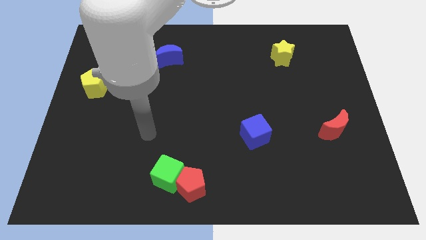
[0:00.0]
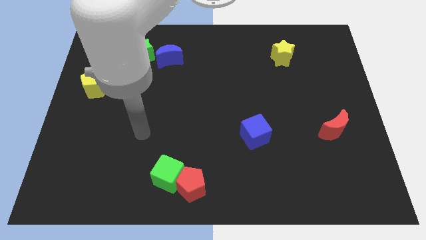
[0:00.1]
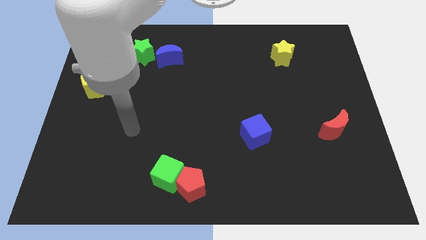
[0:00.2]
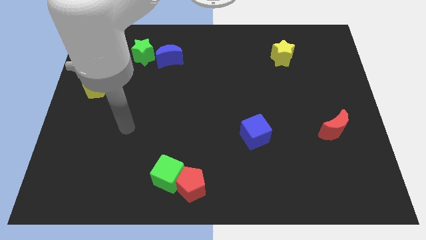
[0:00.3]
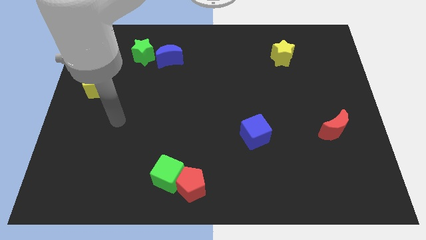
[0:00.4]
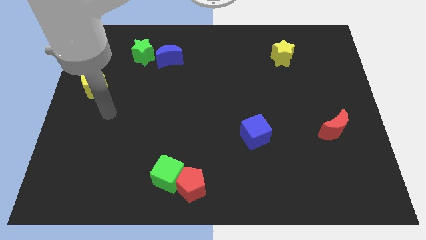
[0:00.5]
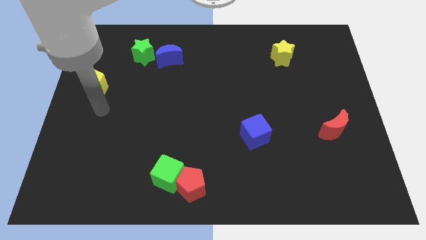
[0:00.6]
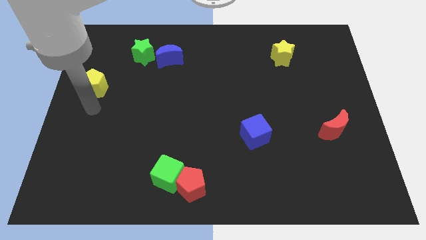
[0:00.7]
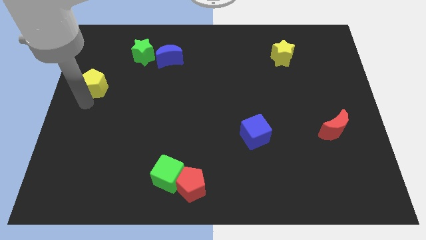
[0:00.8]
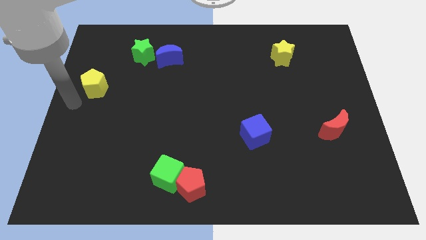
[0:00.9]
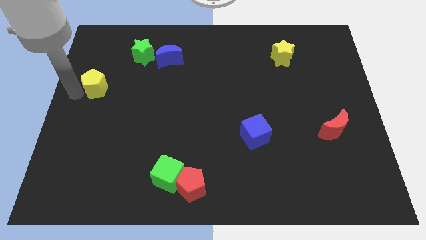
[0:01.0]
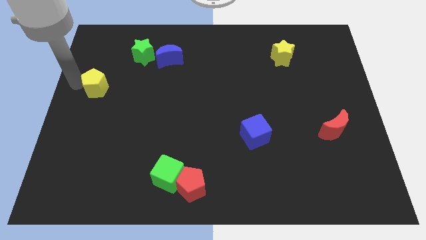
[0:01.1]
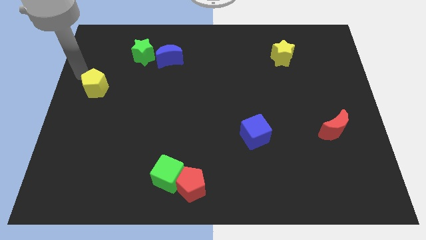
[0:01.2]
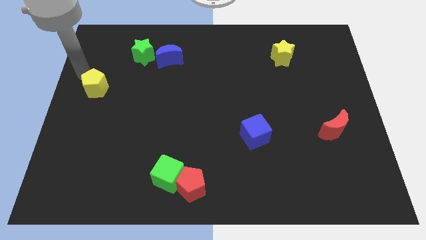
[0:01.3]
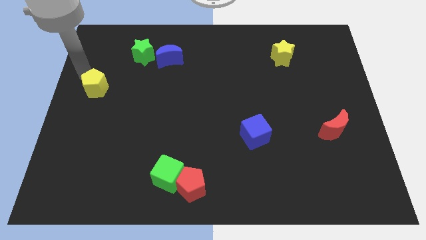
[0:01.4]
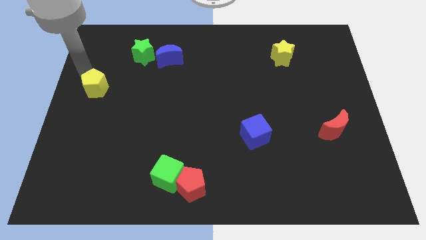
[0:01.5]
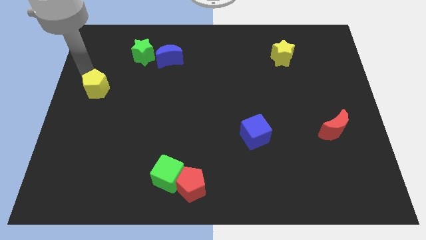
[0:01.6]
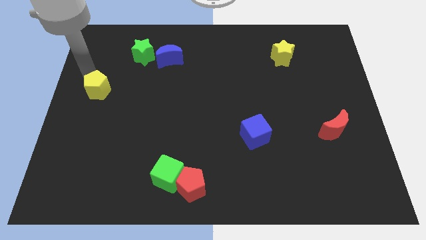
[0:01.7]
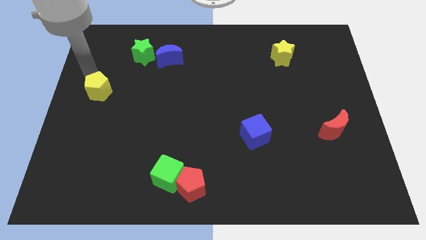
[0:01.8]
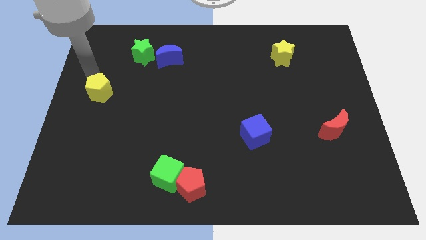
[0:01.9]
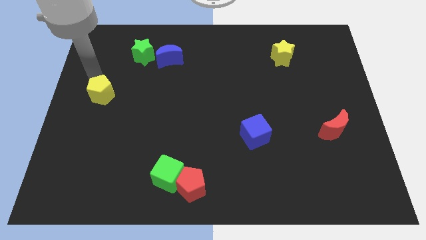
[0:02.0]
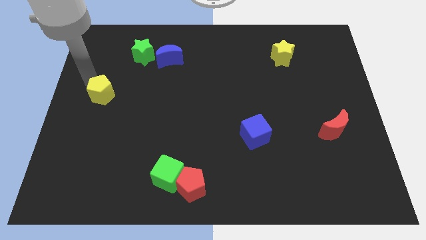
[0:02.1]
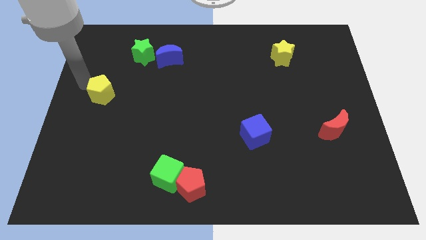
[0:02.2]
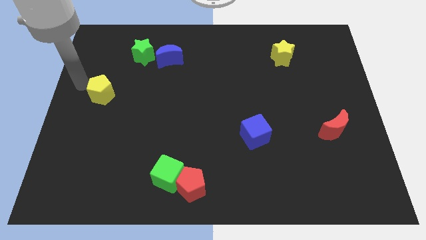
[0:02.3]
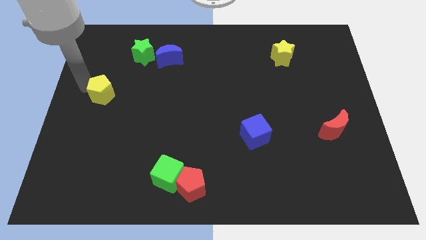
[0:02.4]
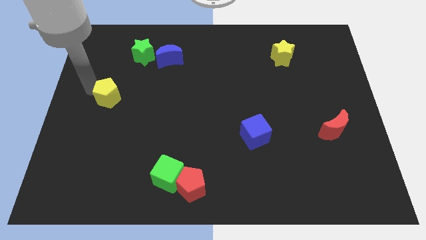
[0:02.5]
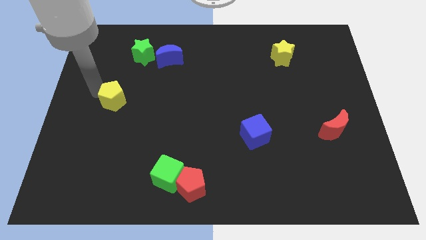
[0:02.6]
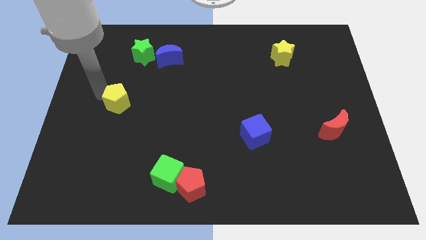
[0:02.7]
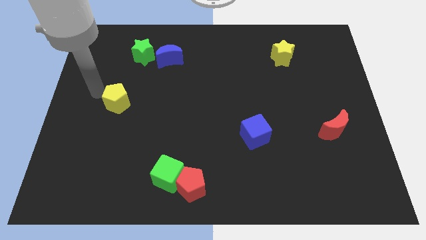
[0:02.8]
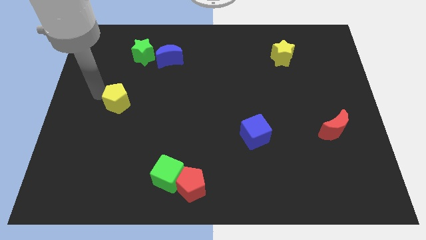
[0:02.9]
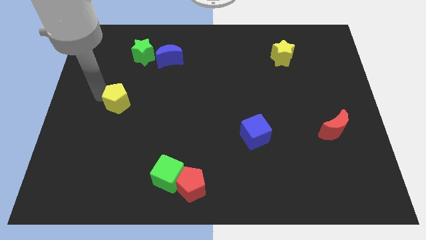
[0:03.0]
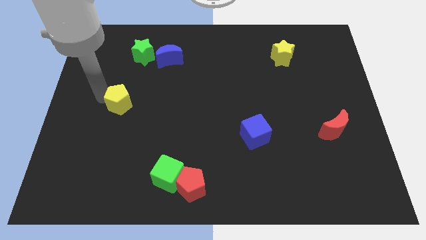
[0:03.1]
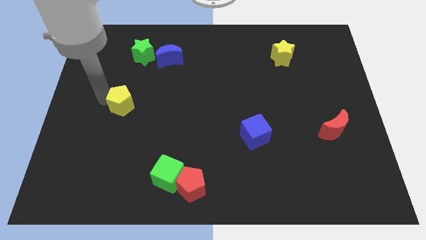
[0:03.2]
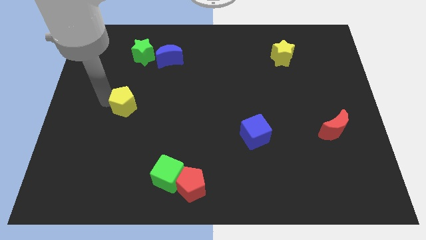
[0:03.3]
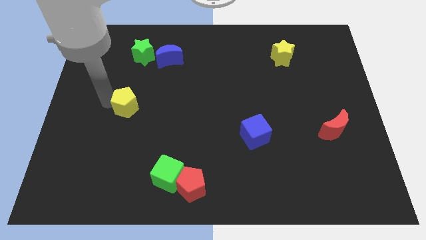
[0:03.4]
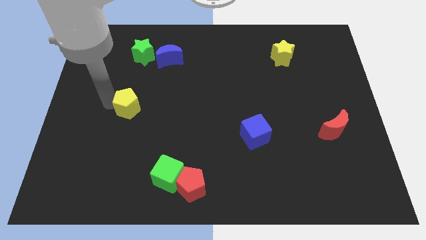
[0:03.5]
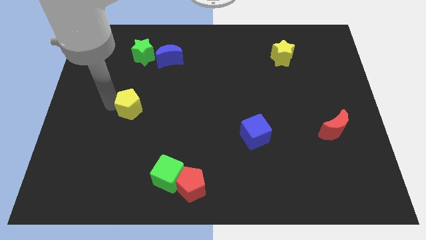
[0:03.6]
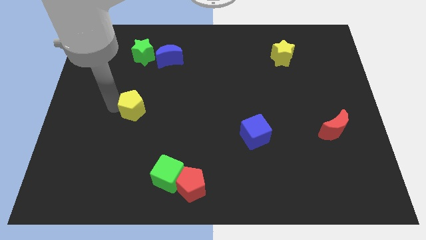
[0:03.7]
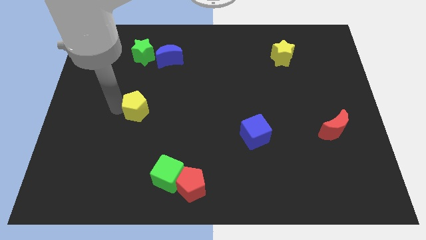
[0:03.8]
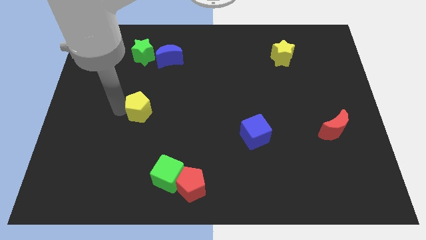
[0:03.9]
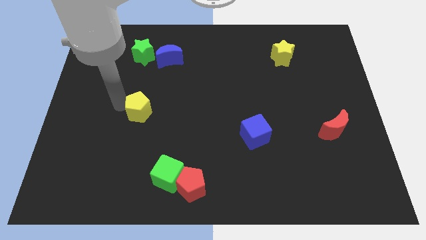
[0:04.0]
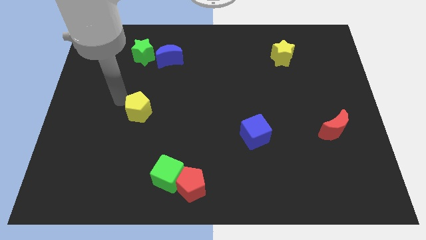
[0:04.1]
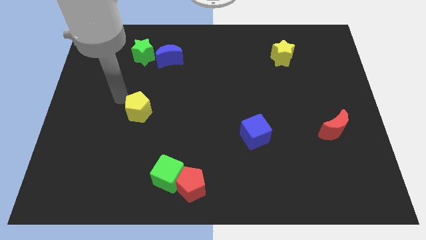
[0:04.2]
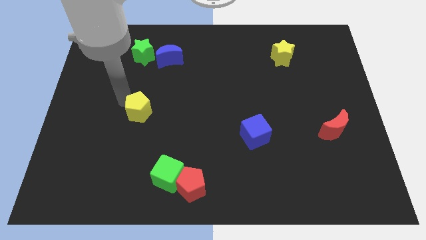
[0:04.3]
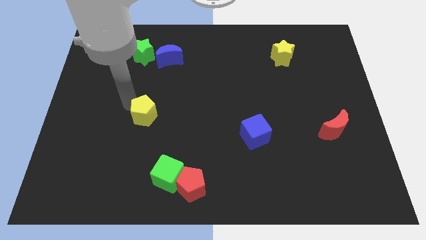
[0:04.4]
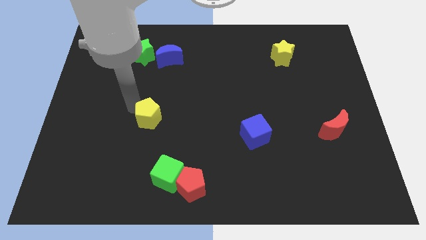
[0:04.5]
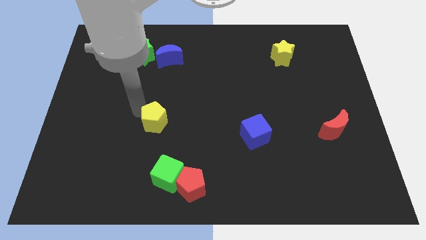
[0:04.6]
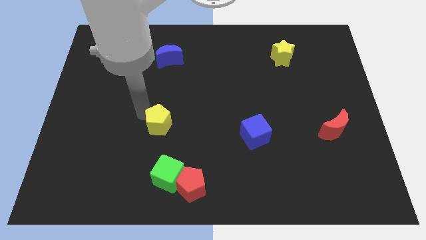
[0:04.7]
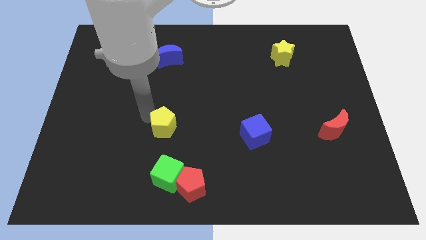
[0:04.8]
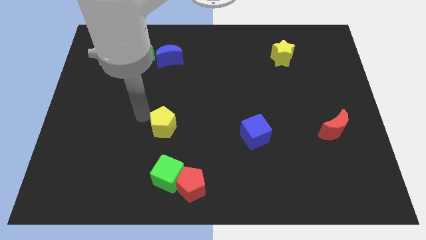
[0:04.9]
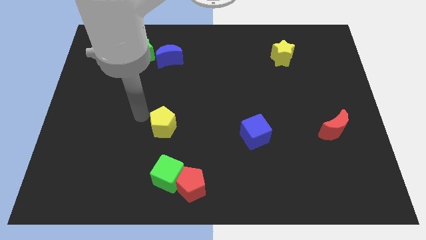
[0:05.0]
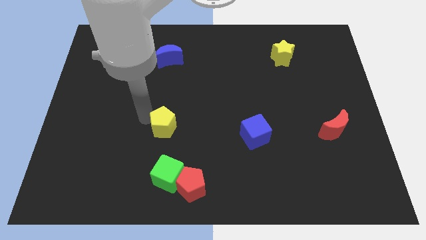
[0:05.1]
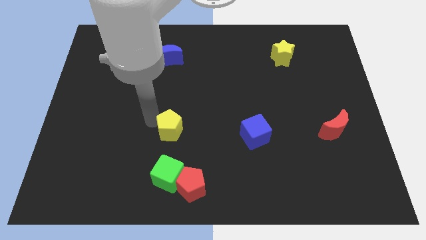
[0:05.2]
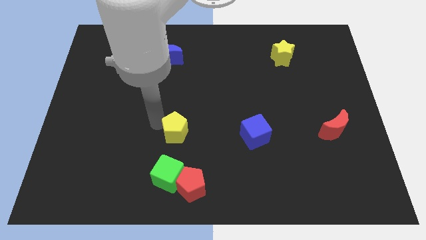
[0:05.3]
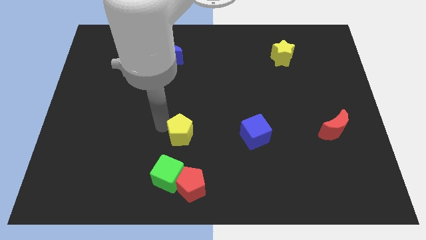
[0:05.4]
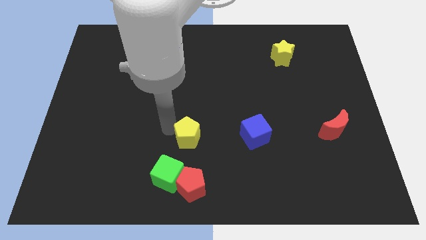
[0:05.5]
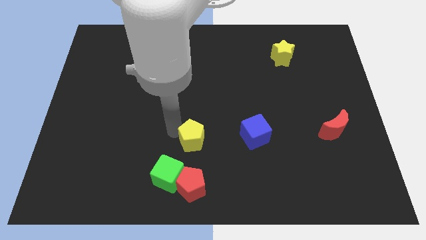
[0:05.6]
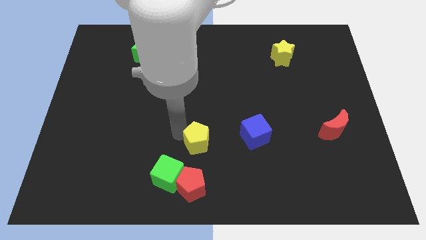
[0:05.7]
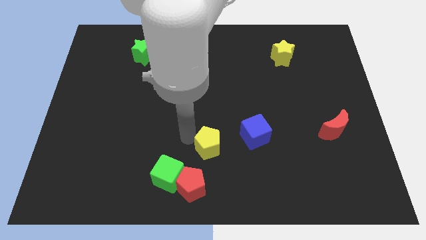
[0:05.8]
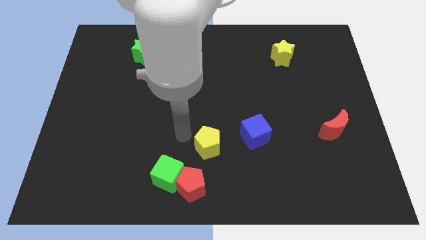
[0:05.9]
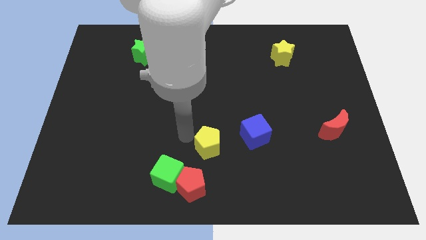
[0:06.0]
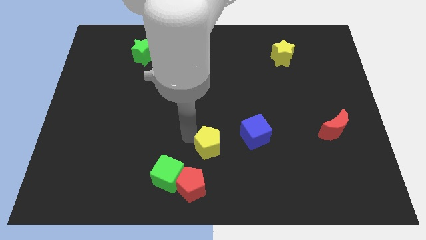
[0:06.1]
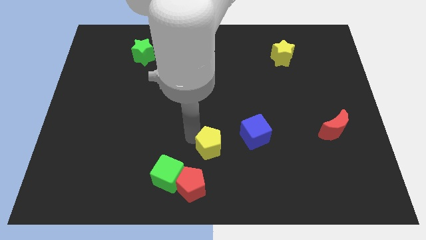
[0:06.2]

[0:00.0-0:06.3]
put the yellow pentagon diagonally down and to the left of the blue cube

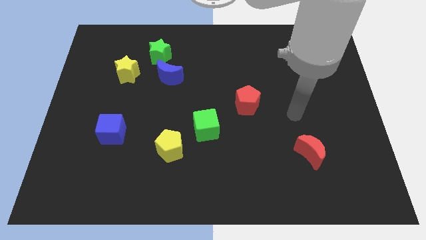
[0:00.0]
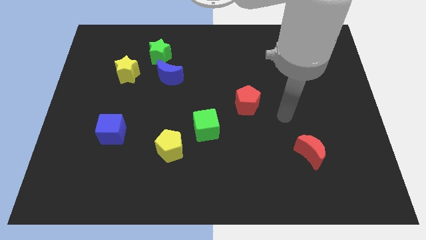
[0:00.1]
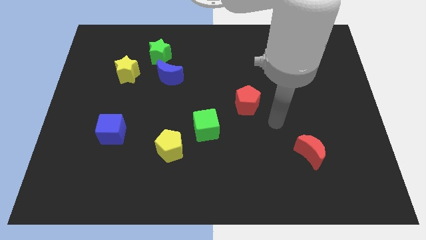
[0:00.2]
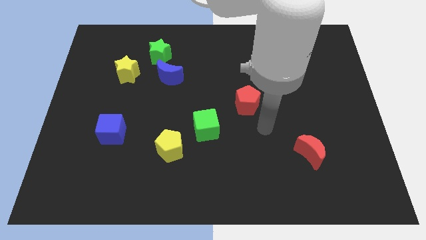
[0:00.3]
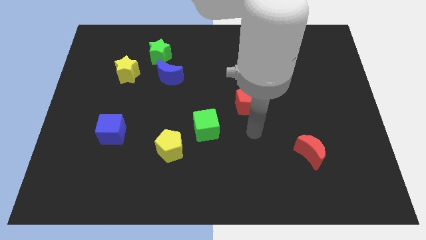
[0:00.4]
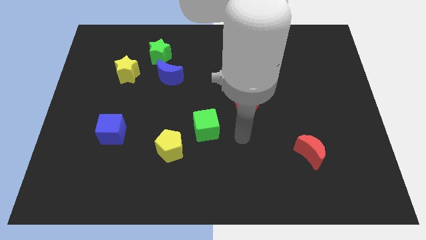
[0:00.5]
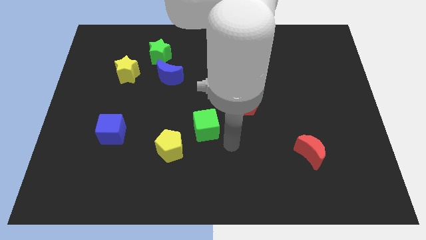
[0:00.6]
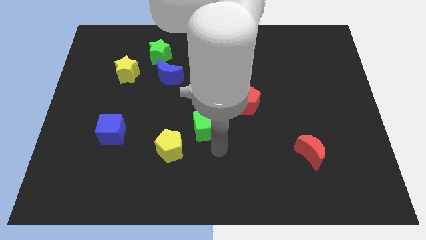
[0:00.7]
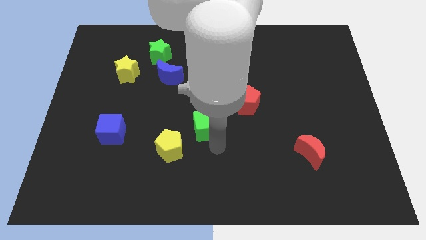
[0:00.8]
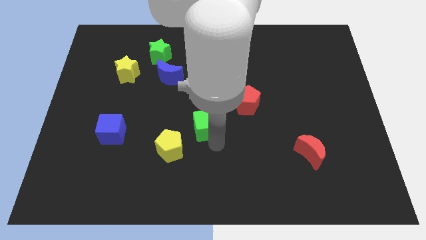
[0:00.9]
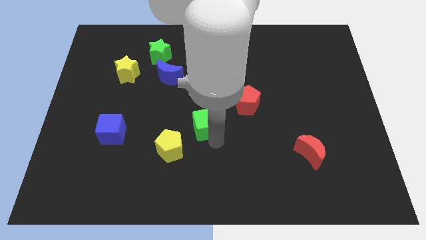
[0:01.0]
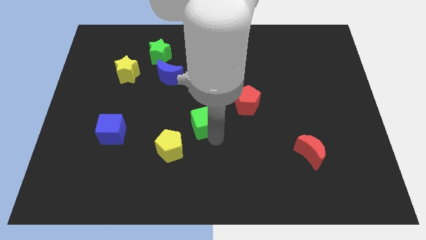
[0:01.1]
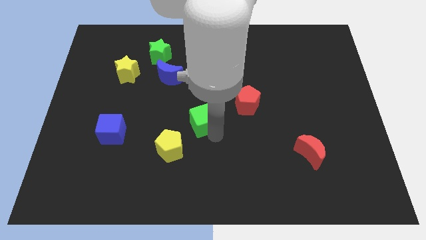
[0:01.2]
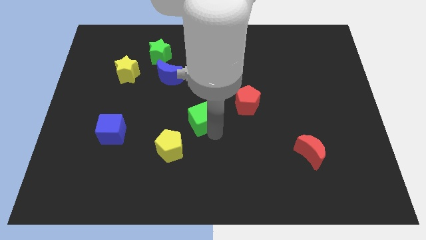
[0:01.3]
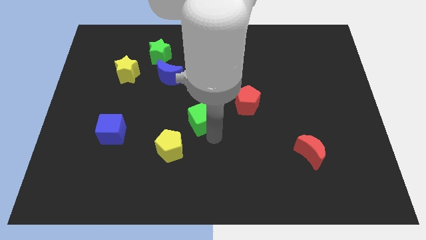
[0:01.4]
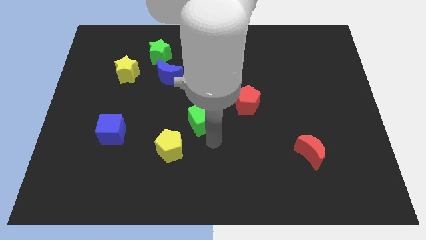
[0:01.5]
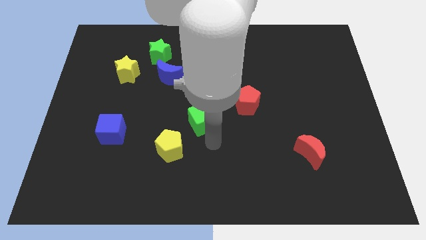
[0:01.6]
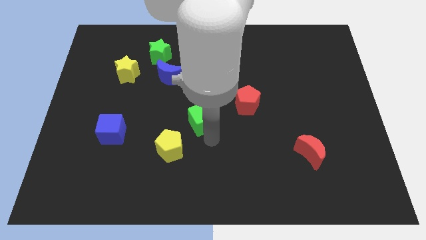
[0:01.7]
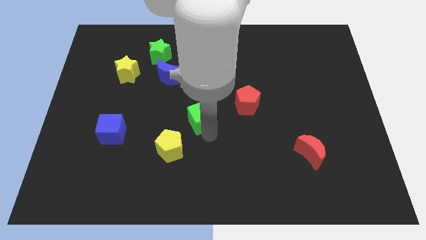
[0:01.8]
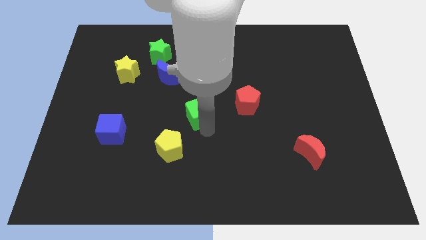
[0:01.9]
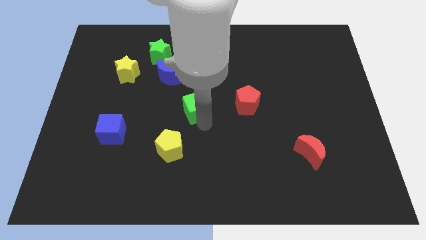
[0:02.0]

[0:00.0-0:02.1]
slide the green cube to the bottom right side of the blue moon
